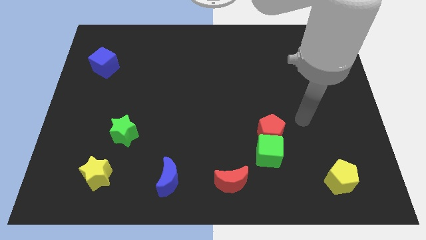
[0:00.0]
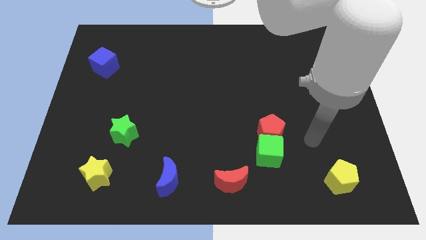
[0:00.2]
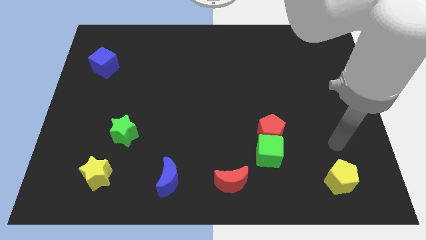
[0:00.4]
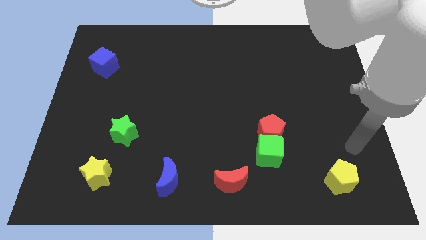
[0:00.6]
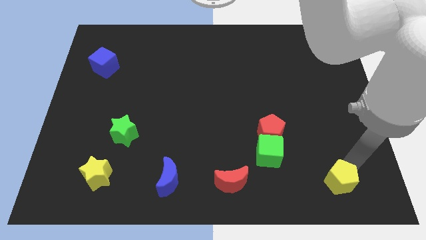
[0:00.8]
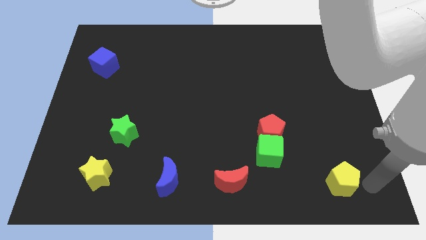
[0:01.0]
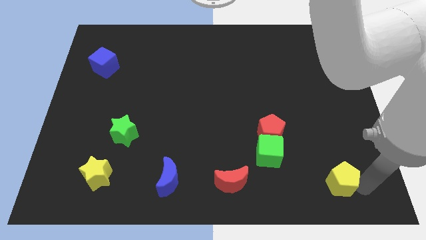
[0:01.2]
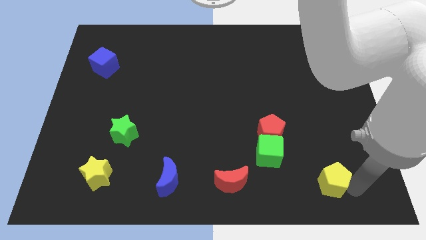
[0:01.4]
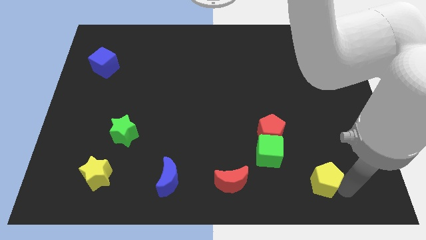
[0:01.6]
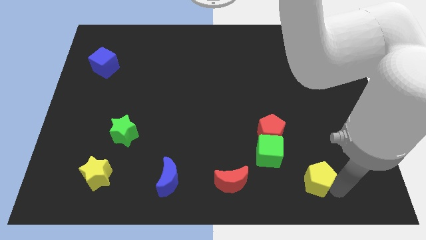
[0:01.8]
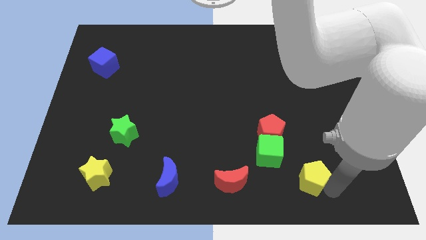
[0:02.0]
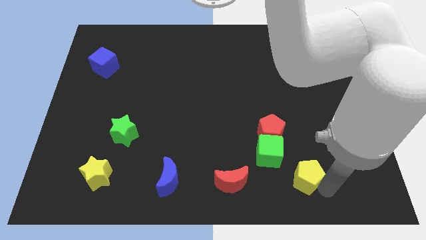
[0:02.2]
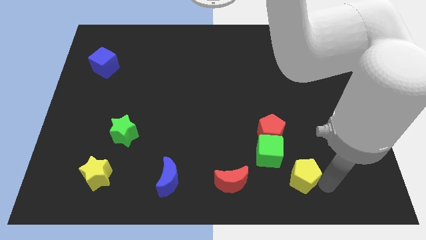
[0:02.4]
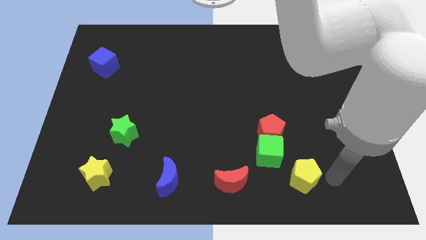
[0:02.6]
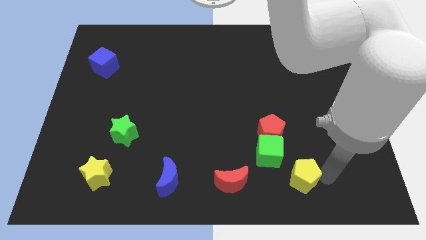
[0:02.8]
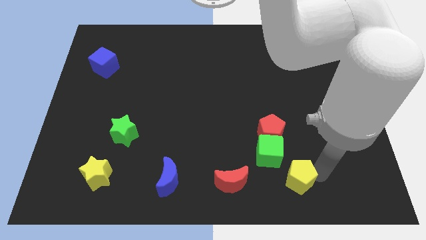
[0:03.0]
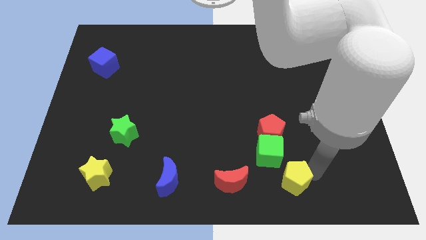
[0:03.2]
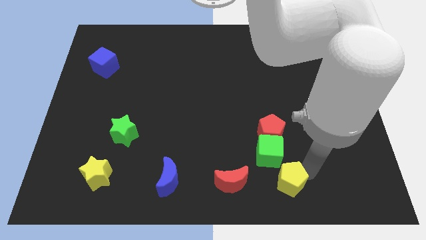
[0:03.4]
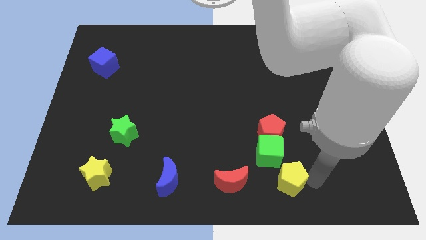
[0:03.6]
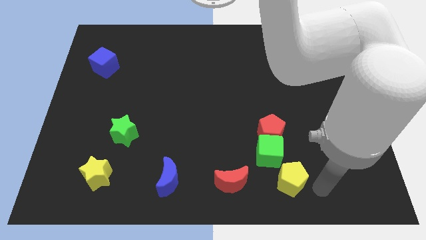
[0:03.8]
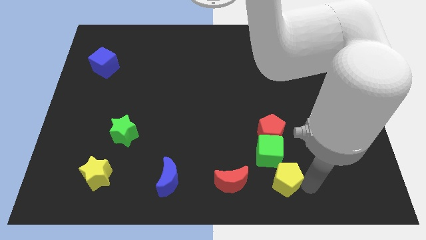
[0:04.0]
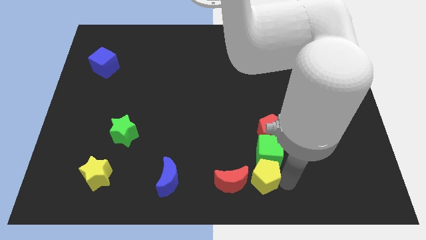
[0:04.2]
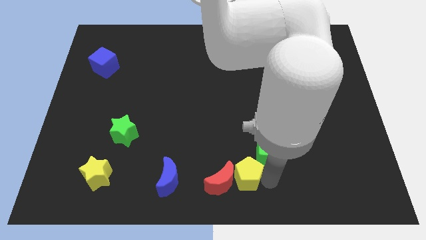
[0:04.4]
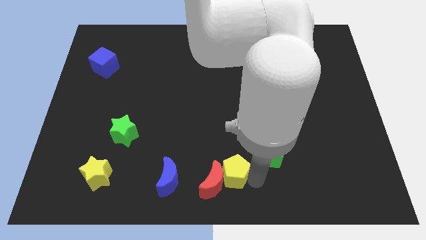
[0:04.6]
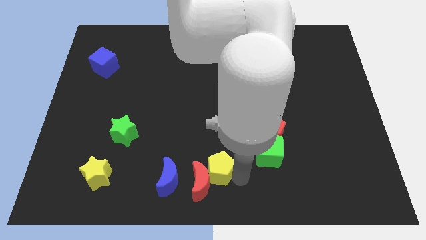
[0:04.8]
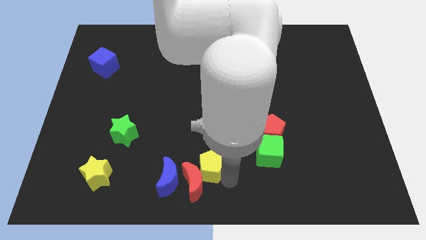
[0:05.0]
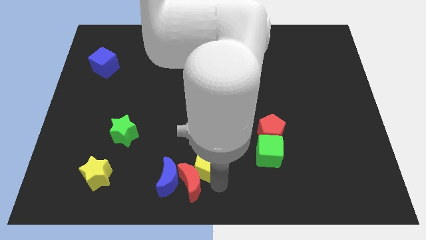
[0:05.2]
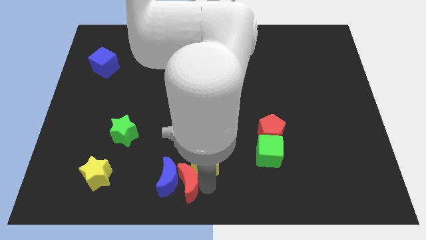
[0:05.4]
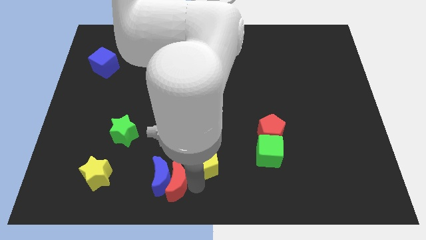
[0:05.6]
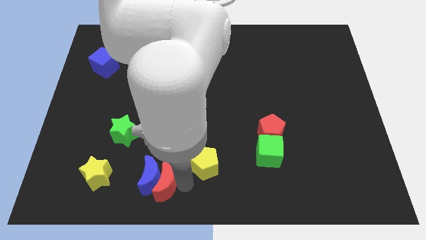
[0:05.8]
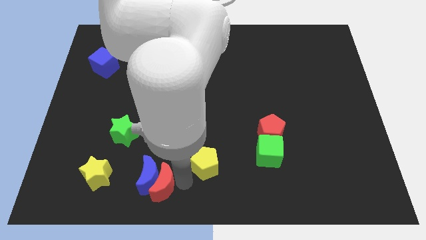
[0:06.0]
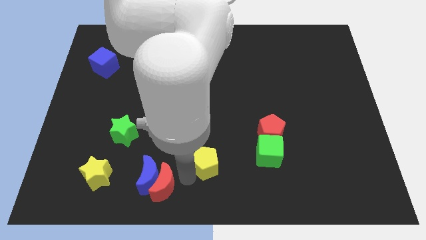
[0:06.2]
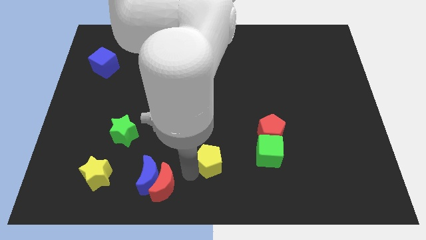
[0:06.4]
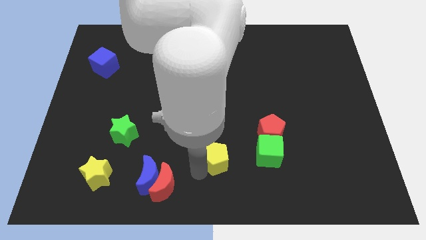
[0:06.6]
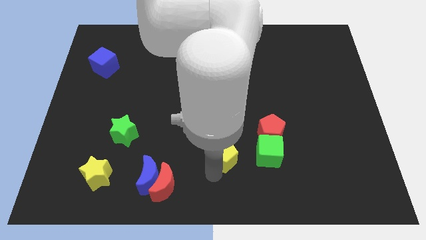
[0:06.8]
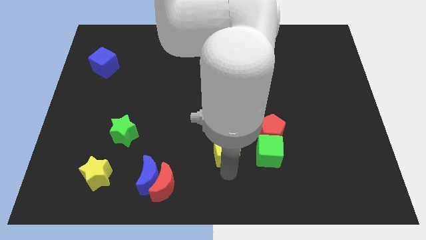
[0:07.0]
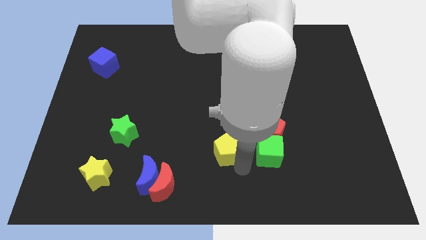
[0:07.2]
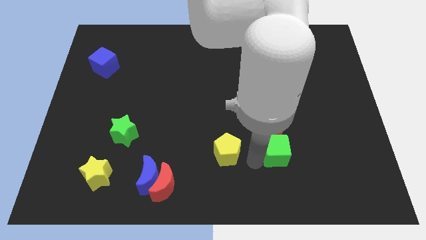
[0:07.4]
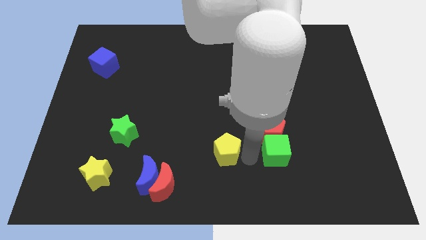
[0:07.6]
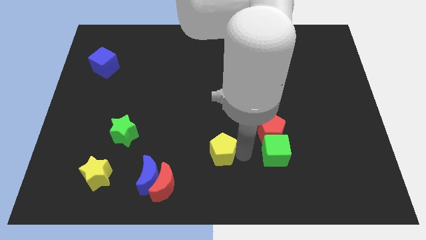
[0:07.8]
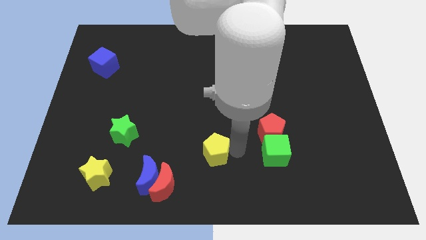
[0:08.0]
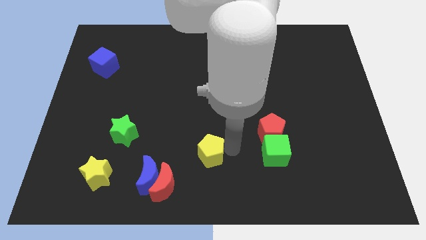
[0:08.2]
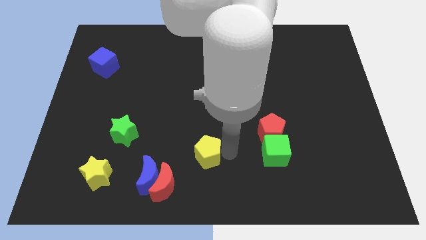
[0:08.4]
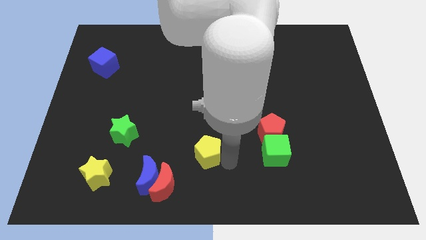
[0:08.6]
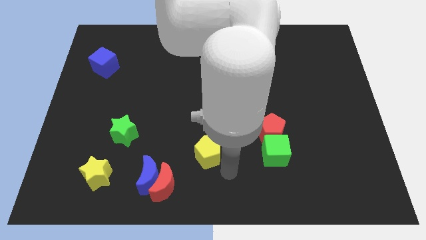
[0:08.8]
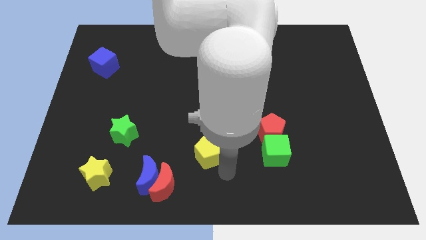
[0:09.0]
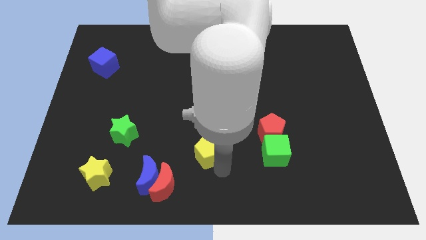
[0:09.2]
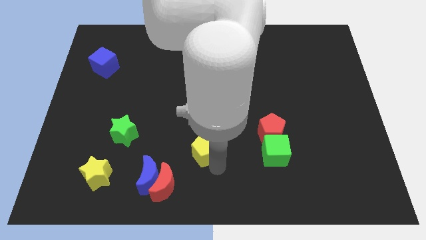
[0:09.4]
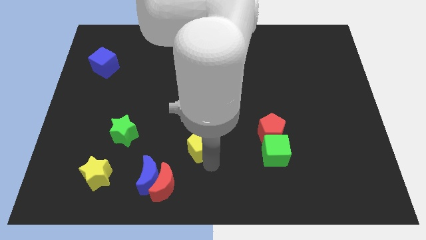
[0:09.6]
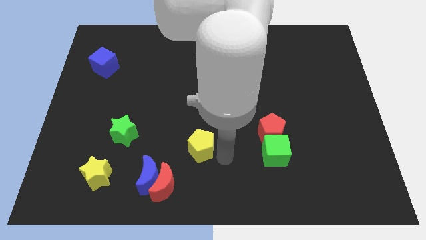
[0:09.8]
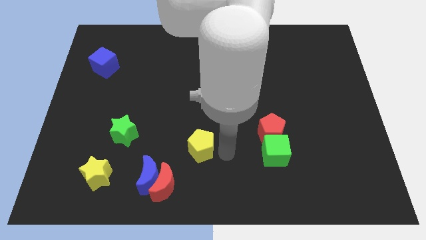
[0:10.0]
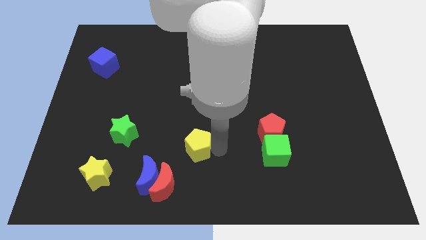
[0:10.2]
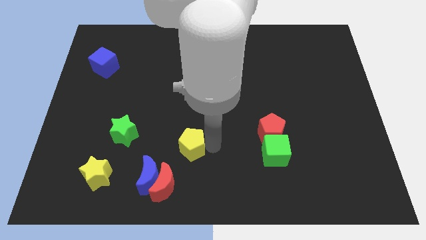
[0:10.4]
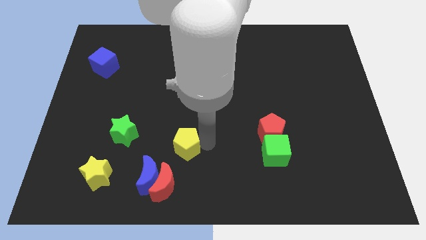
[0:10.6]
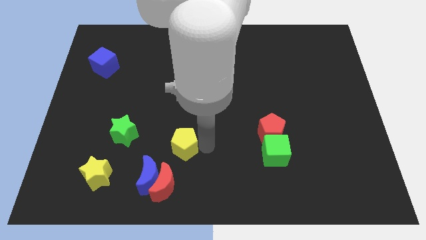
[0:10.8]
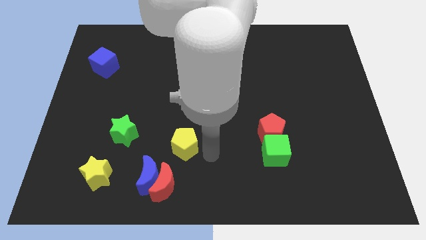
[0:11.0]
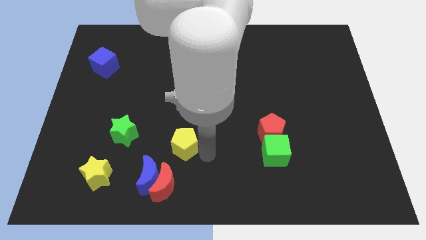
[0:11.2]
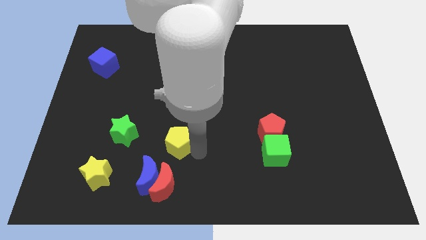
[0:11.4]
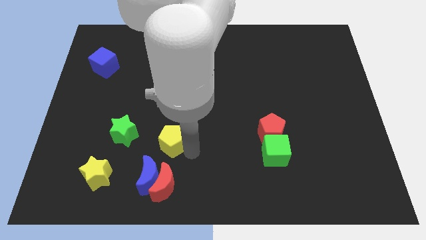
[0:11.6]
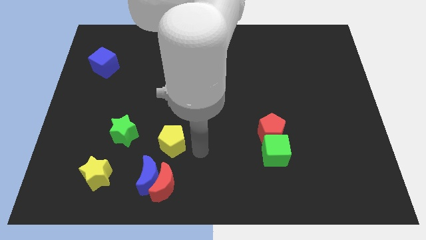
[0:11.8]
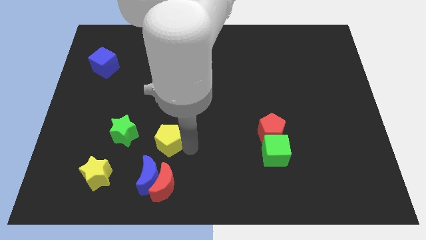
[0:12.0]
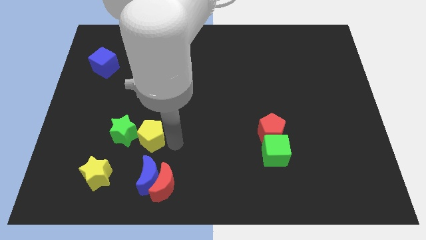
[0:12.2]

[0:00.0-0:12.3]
move the yellow pentagon next to the green star
